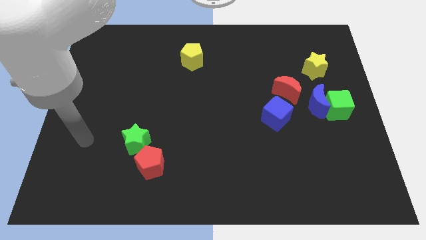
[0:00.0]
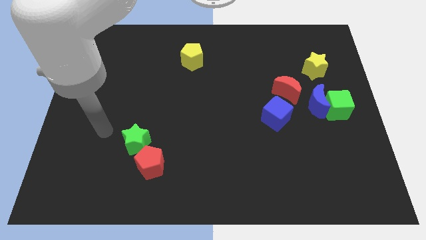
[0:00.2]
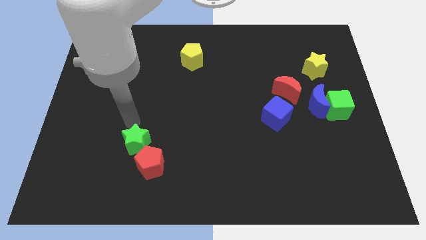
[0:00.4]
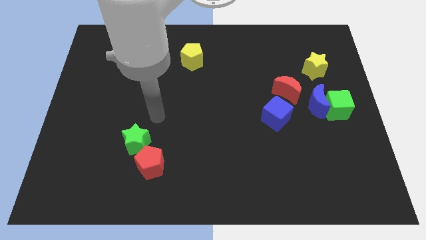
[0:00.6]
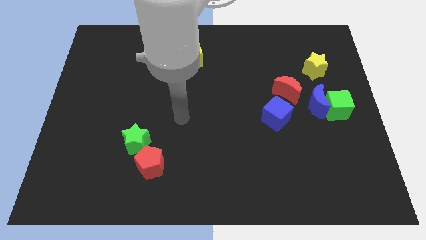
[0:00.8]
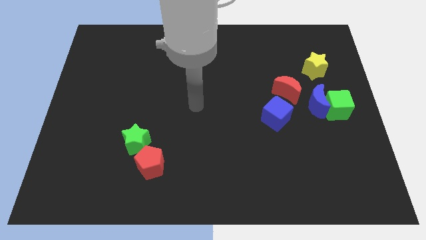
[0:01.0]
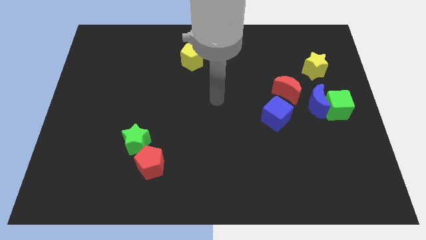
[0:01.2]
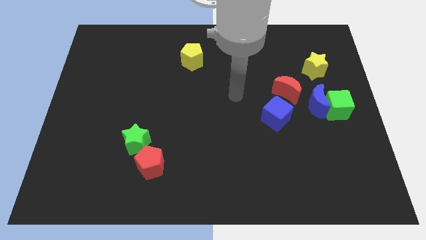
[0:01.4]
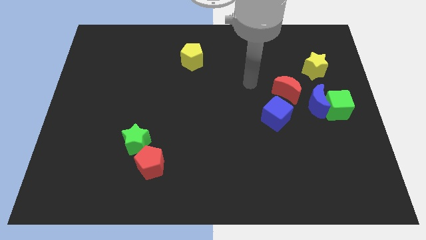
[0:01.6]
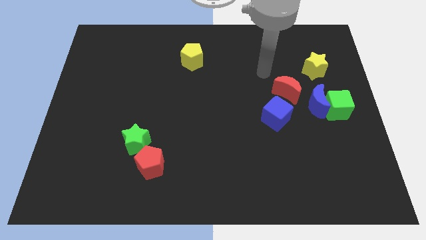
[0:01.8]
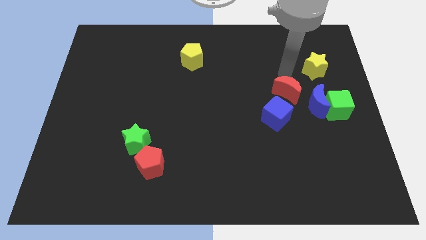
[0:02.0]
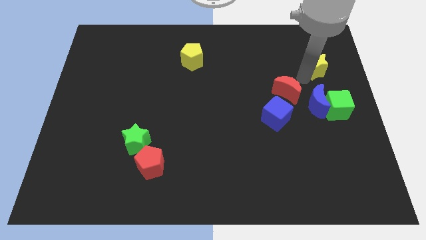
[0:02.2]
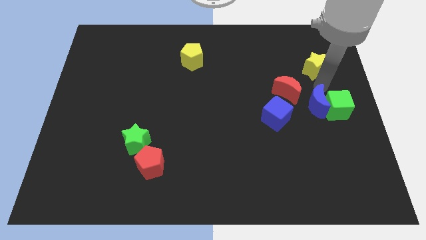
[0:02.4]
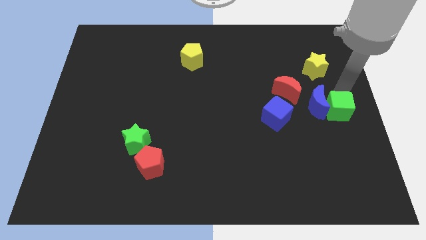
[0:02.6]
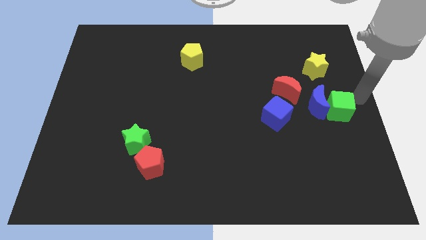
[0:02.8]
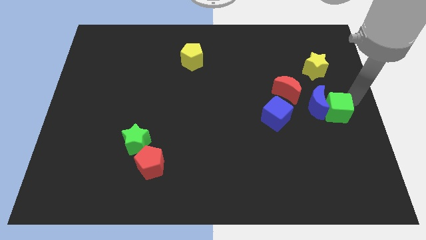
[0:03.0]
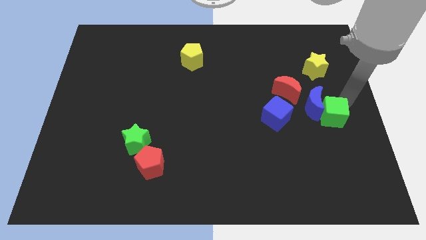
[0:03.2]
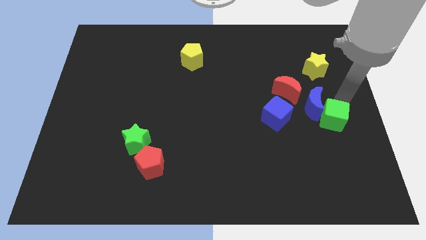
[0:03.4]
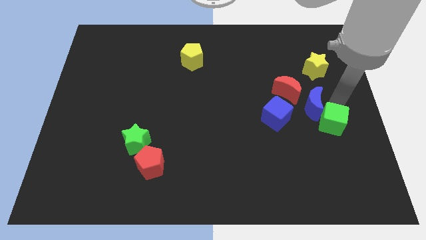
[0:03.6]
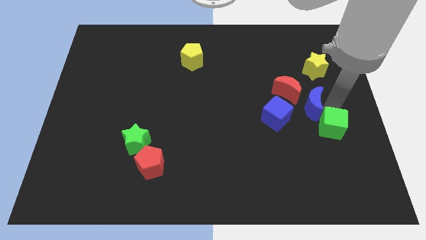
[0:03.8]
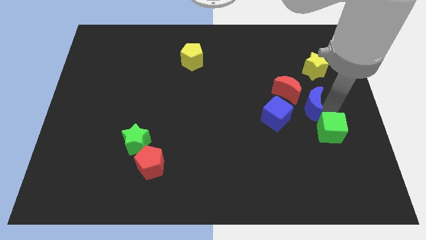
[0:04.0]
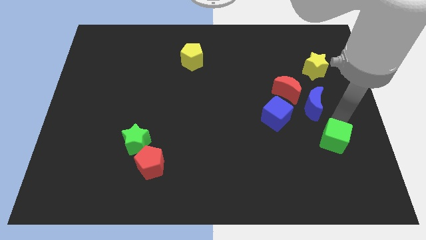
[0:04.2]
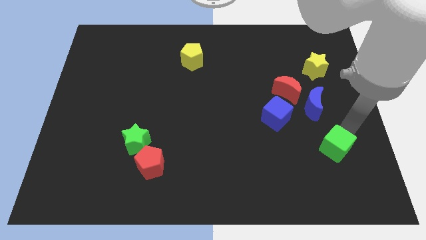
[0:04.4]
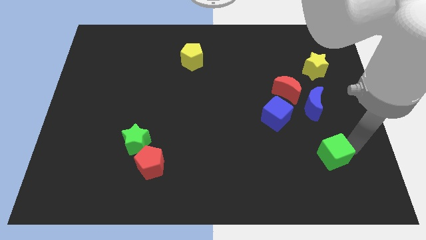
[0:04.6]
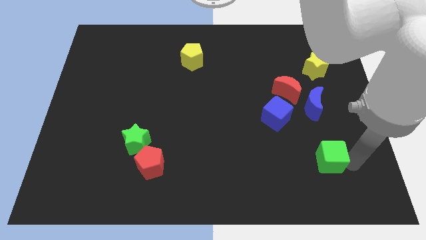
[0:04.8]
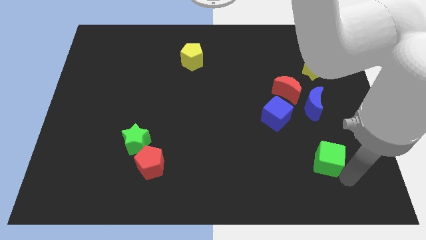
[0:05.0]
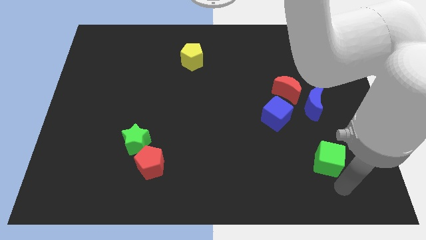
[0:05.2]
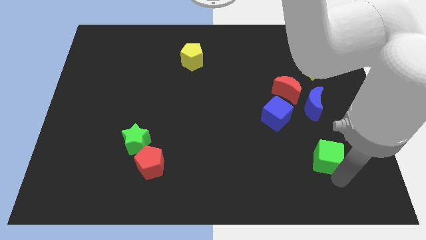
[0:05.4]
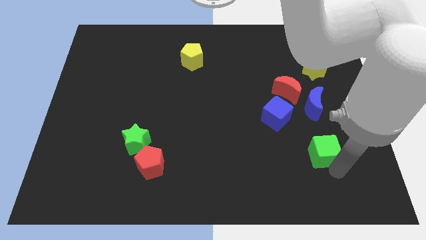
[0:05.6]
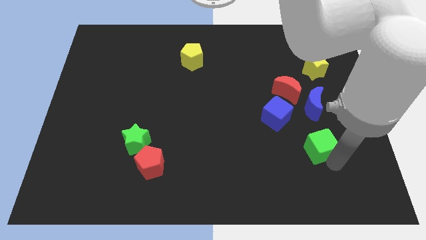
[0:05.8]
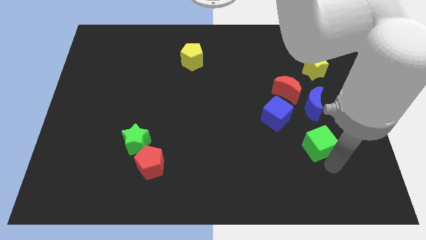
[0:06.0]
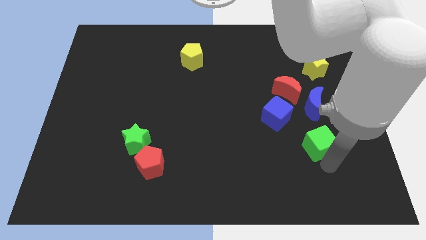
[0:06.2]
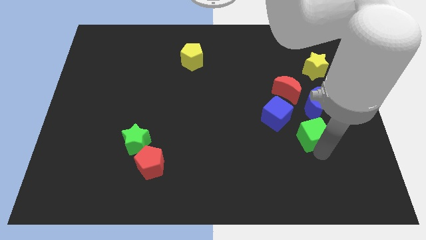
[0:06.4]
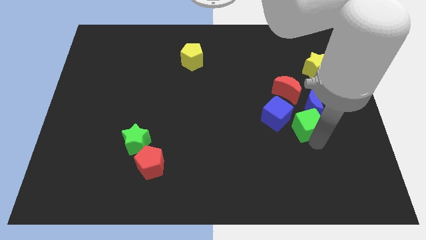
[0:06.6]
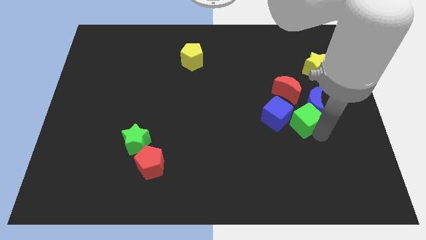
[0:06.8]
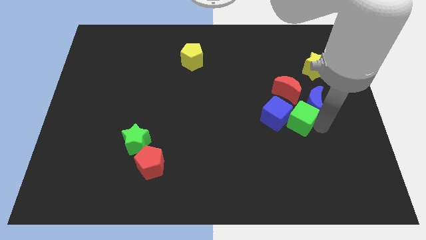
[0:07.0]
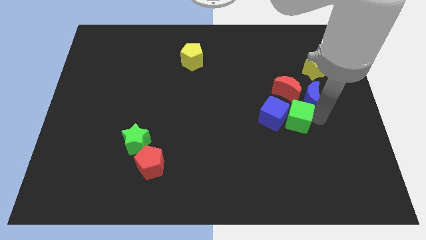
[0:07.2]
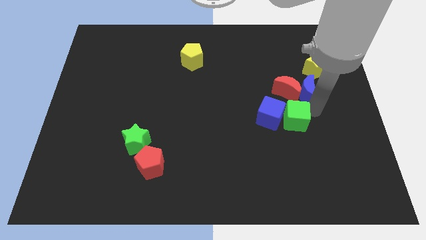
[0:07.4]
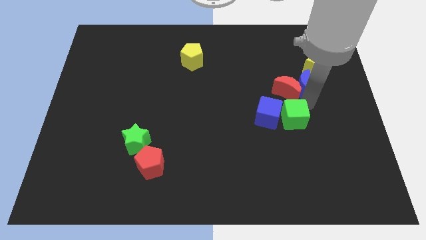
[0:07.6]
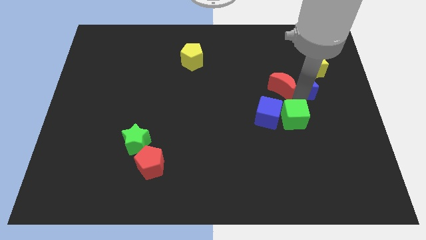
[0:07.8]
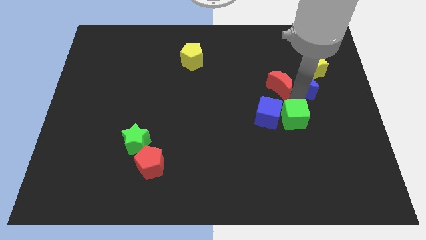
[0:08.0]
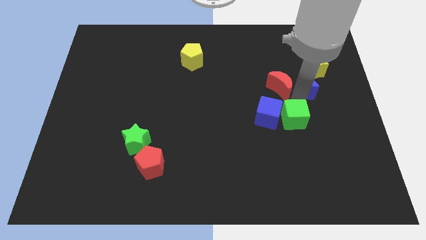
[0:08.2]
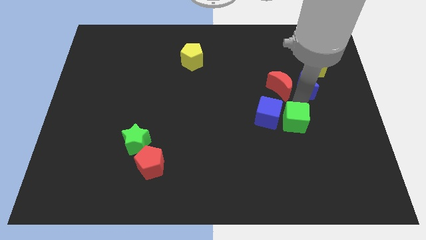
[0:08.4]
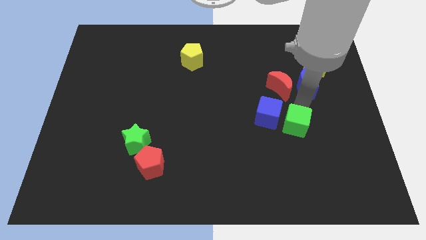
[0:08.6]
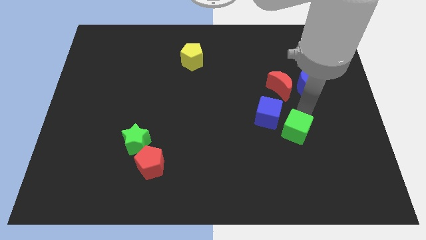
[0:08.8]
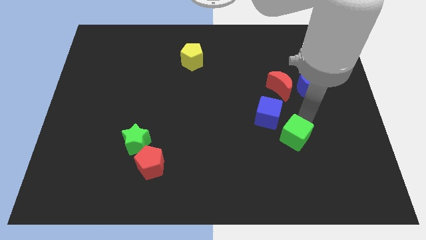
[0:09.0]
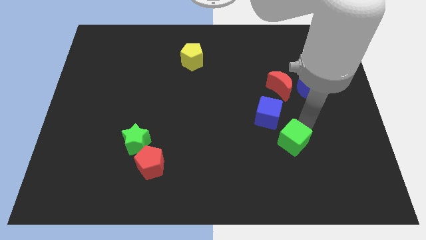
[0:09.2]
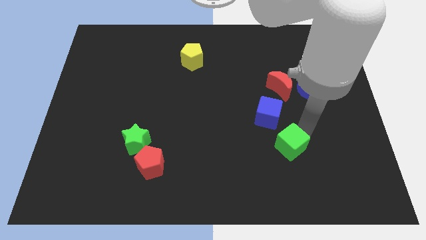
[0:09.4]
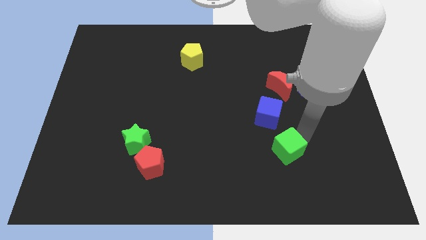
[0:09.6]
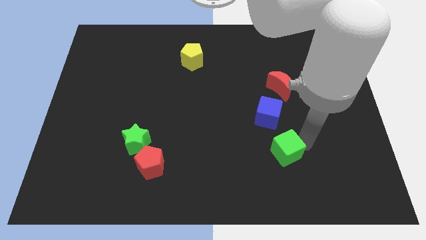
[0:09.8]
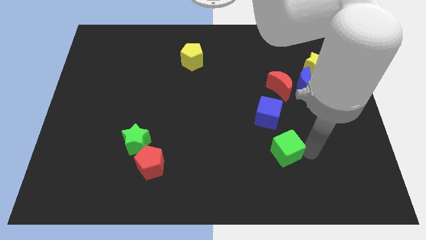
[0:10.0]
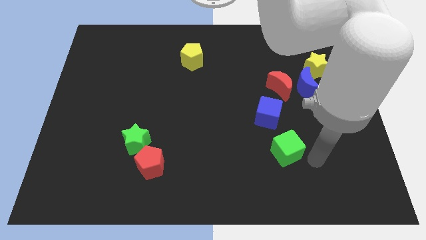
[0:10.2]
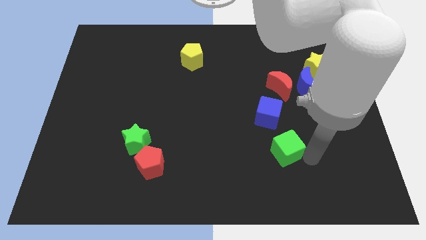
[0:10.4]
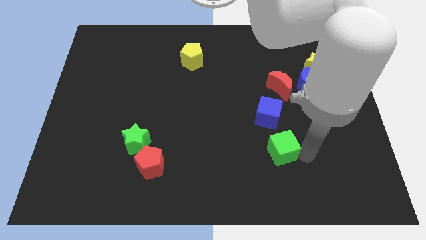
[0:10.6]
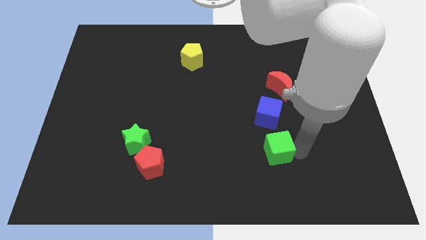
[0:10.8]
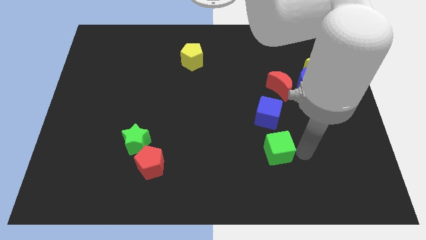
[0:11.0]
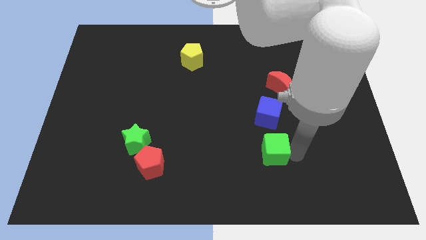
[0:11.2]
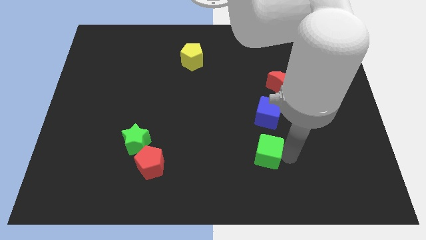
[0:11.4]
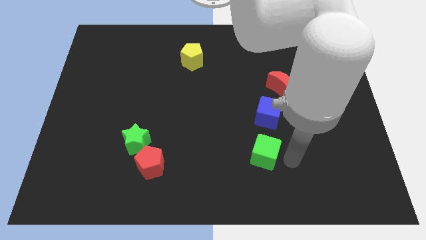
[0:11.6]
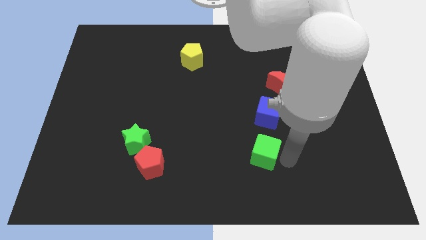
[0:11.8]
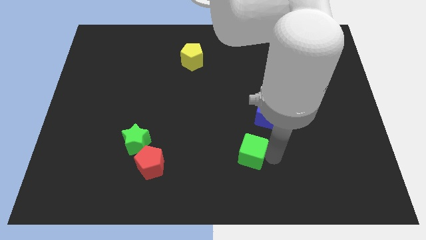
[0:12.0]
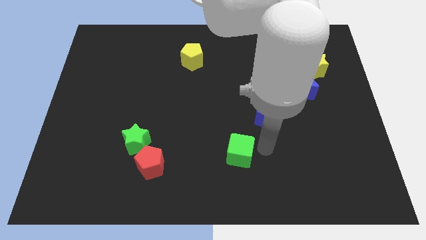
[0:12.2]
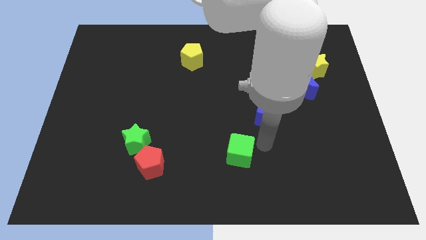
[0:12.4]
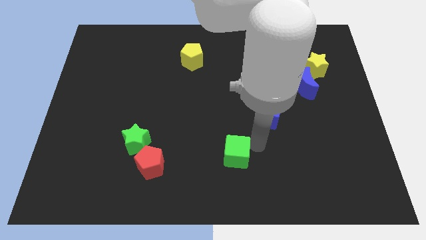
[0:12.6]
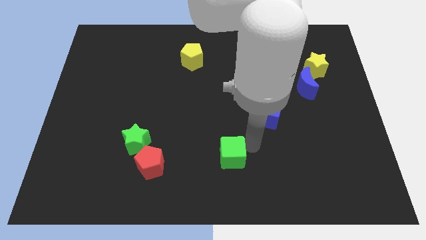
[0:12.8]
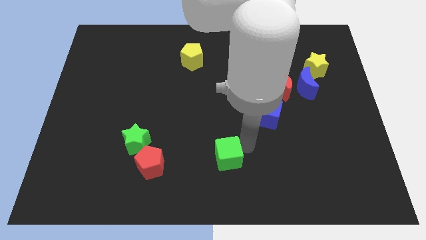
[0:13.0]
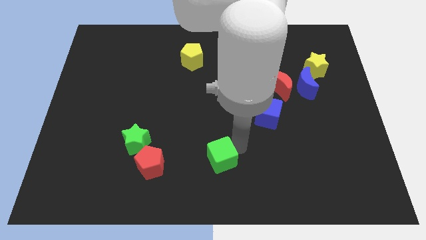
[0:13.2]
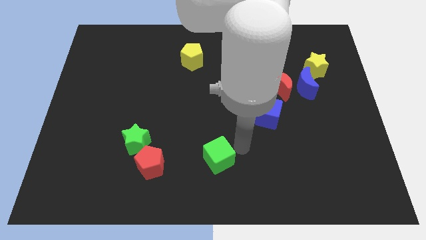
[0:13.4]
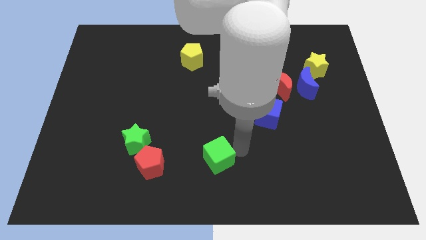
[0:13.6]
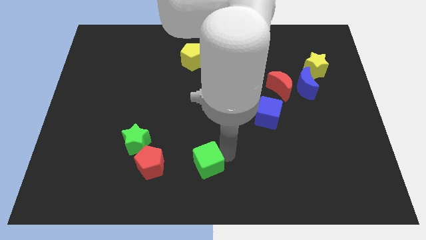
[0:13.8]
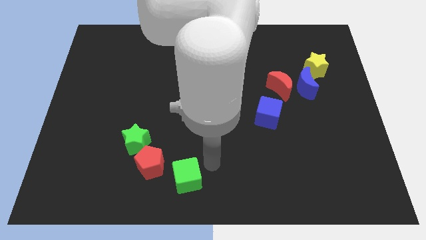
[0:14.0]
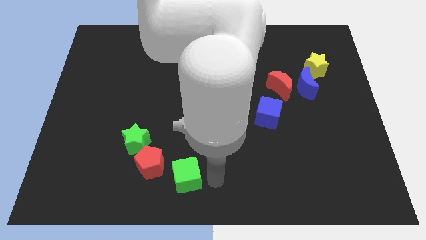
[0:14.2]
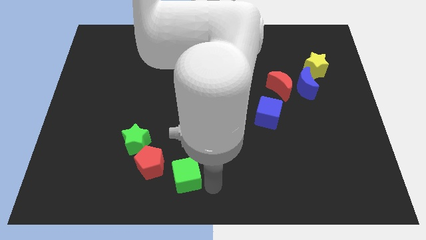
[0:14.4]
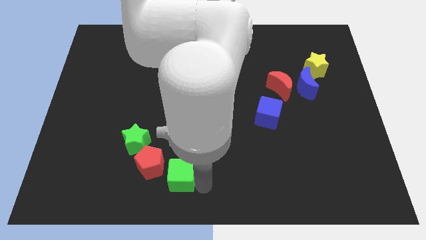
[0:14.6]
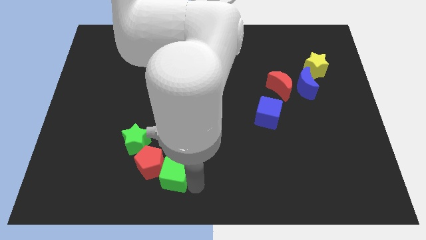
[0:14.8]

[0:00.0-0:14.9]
slide the green cube close to the red pentagon
